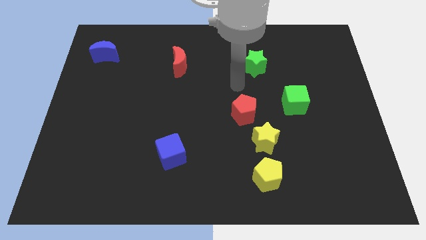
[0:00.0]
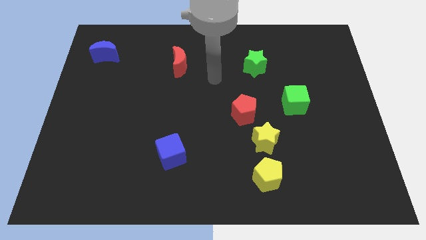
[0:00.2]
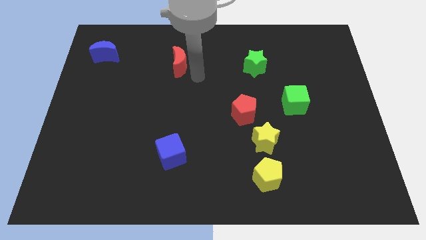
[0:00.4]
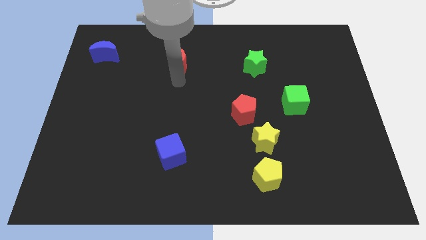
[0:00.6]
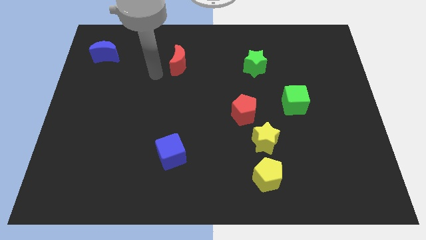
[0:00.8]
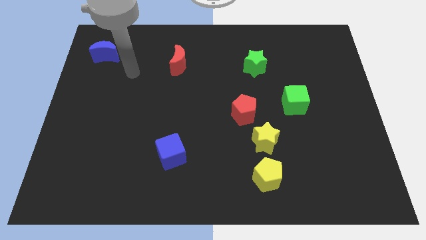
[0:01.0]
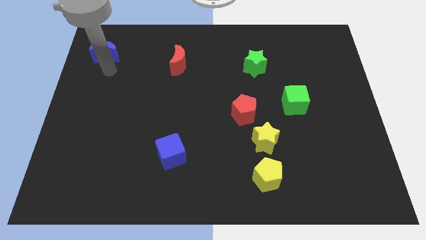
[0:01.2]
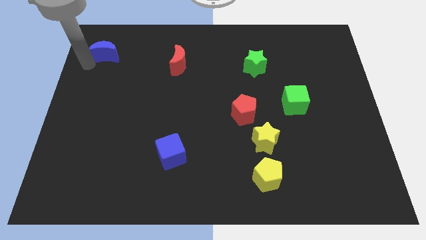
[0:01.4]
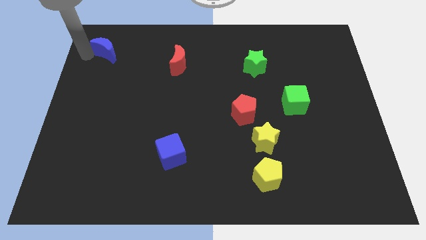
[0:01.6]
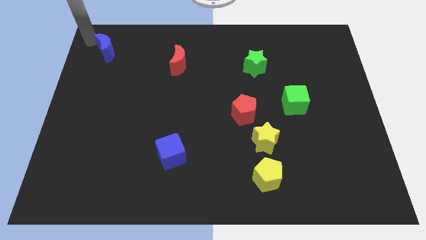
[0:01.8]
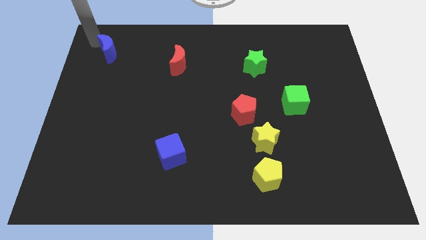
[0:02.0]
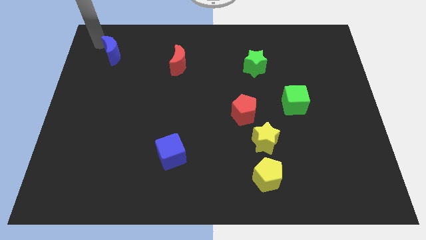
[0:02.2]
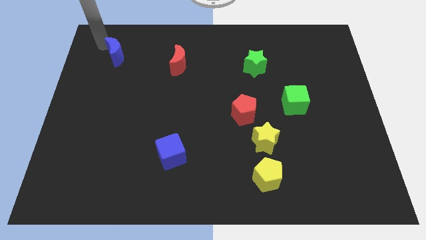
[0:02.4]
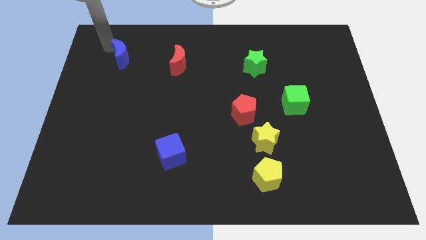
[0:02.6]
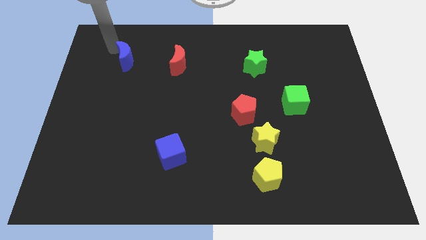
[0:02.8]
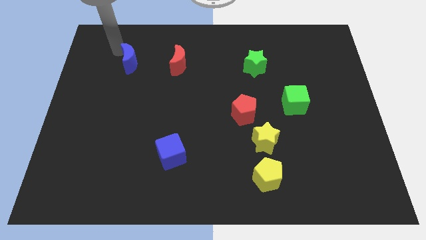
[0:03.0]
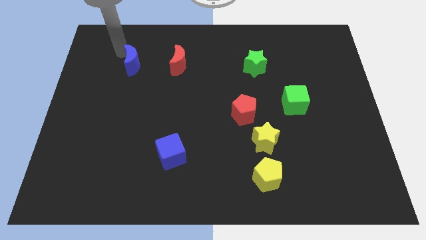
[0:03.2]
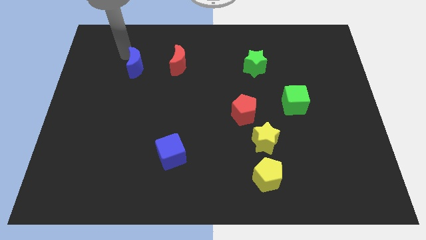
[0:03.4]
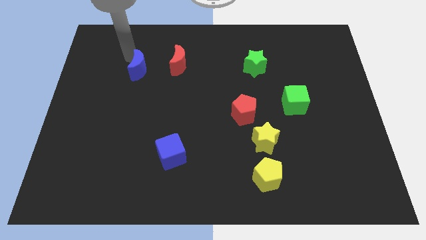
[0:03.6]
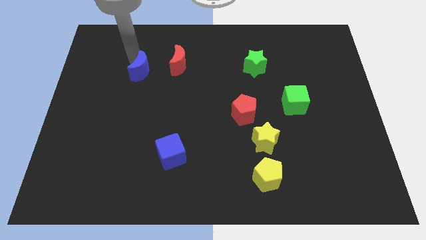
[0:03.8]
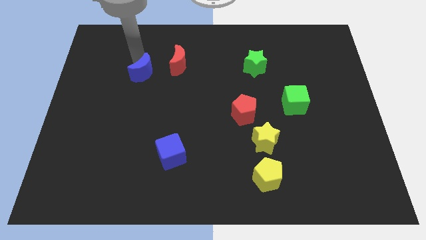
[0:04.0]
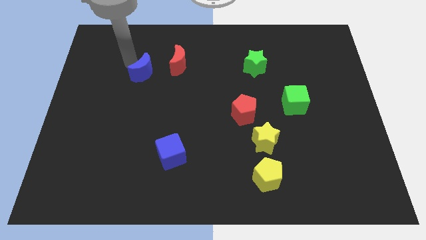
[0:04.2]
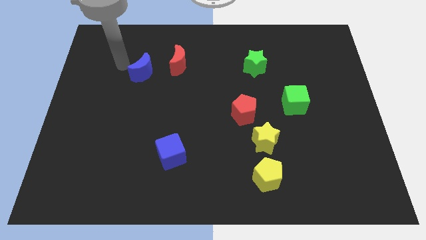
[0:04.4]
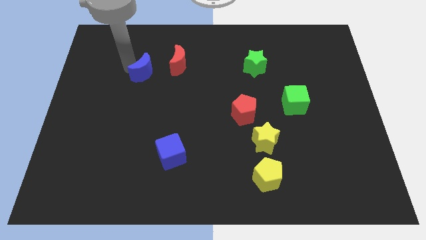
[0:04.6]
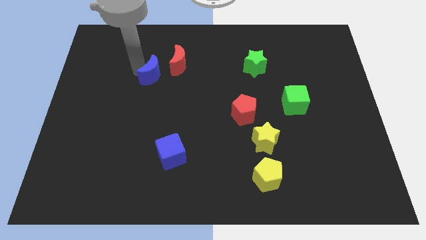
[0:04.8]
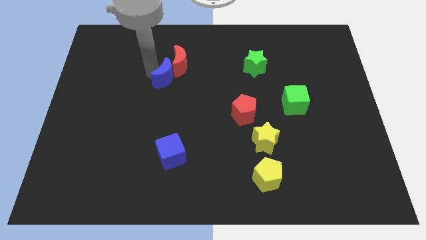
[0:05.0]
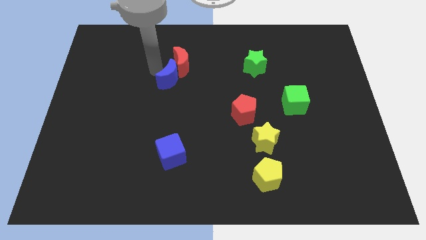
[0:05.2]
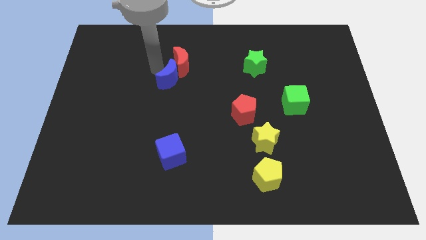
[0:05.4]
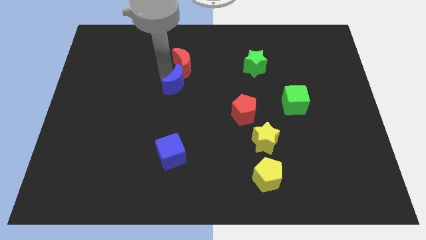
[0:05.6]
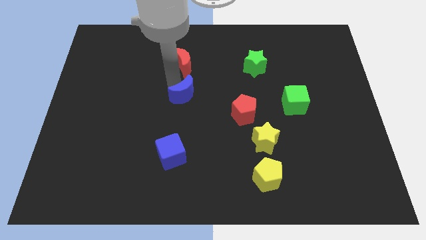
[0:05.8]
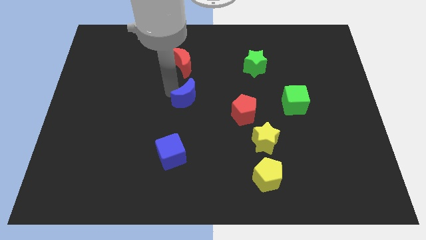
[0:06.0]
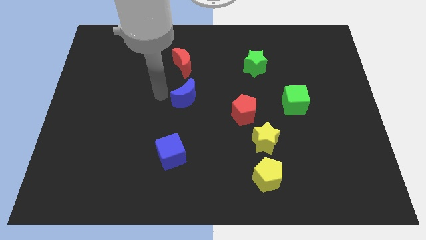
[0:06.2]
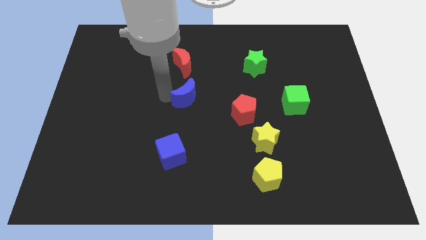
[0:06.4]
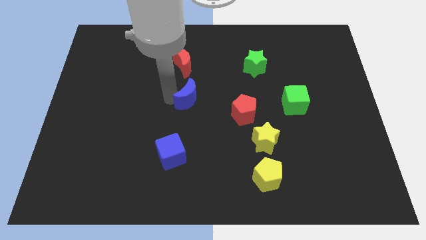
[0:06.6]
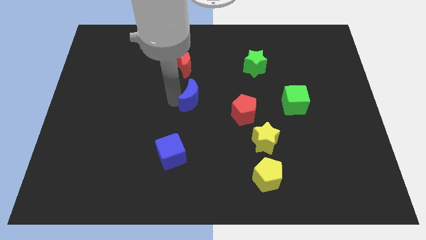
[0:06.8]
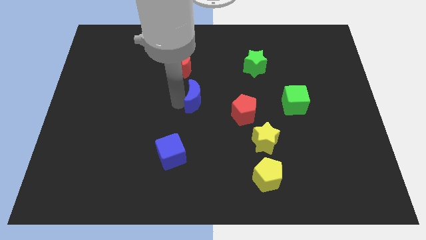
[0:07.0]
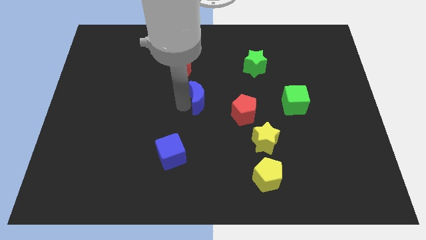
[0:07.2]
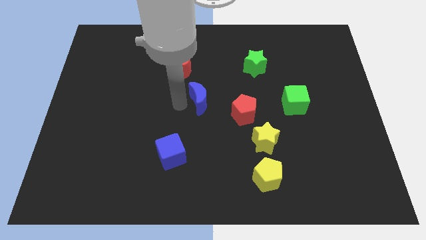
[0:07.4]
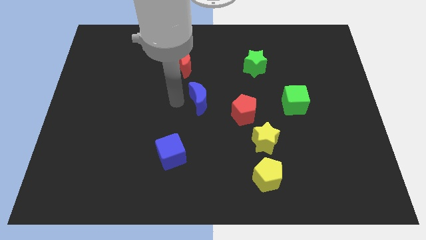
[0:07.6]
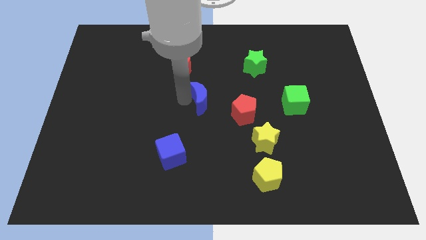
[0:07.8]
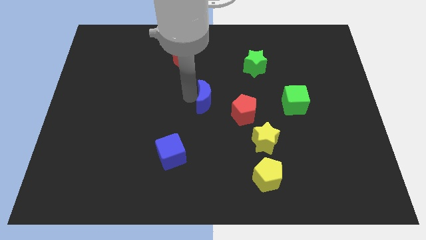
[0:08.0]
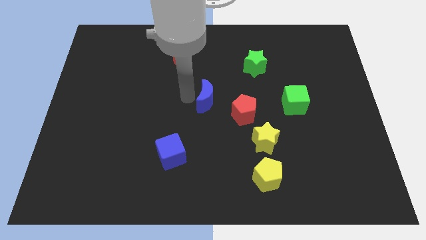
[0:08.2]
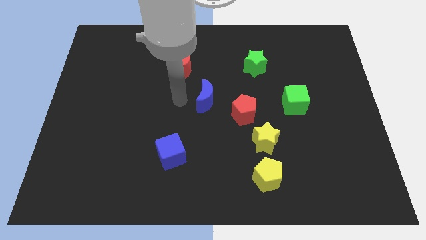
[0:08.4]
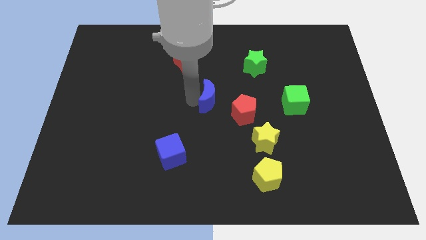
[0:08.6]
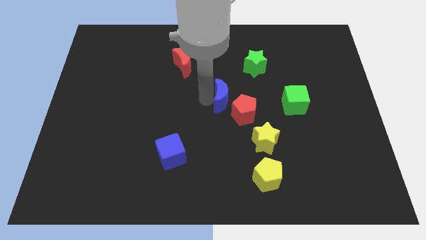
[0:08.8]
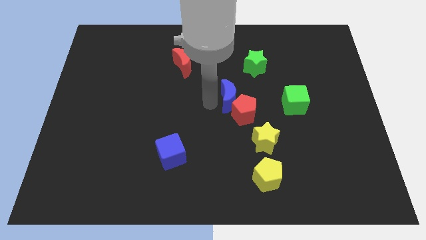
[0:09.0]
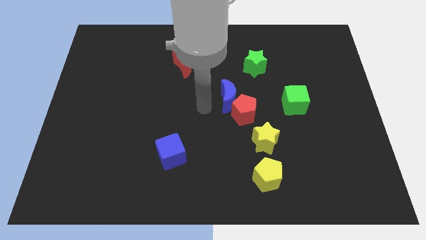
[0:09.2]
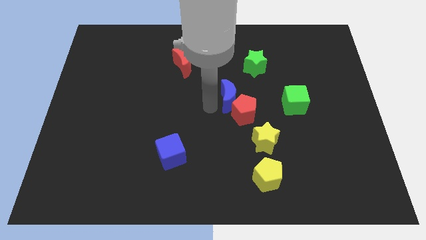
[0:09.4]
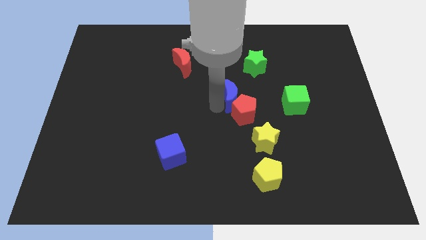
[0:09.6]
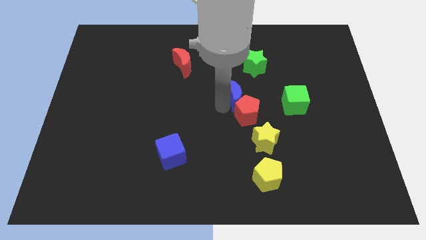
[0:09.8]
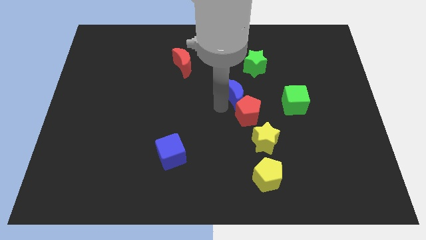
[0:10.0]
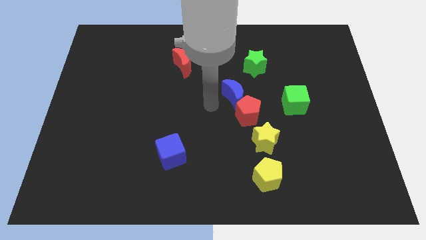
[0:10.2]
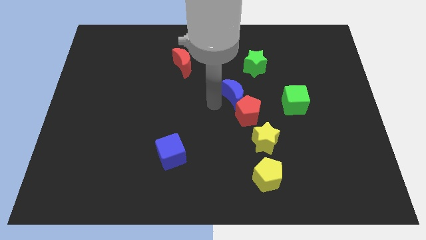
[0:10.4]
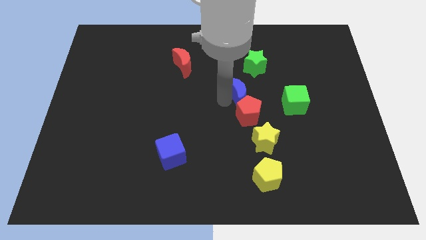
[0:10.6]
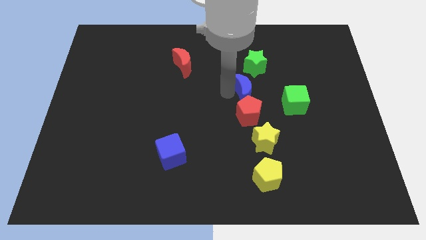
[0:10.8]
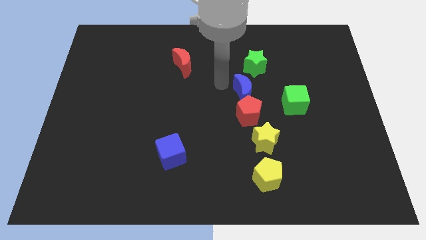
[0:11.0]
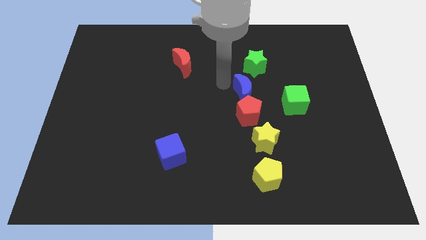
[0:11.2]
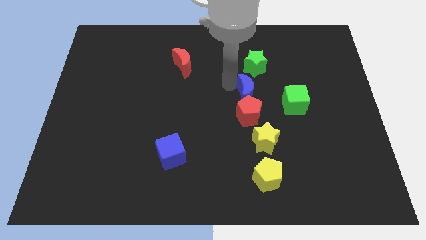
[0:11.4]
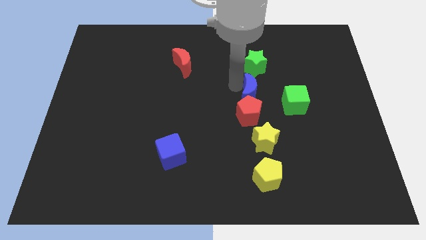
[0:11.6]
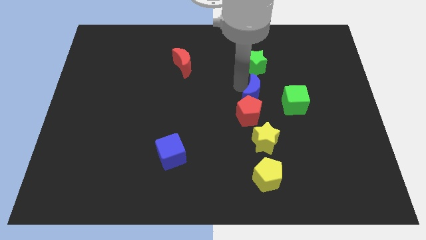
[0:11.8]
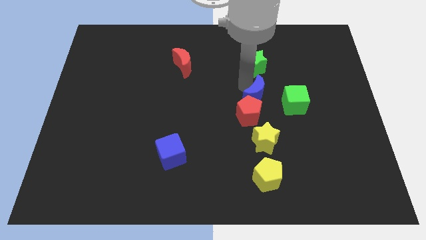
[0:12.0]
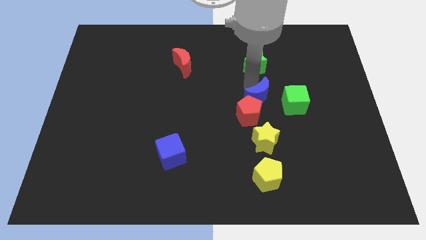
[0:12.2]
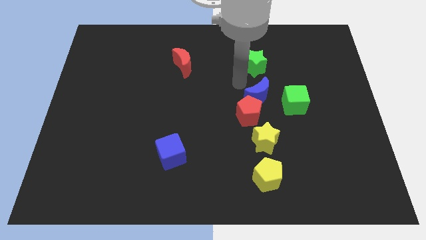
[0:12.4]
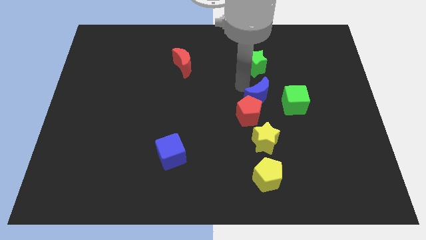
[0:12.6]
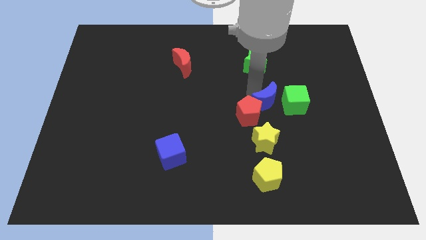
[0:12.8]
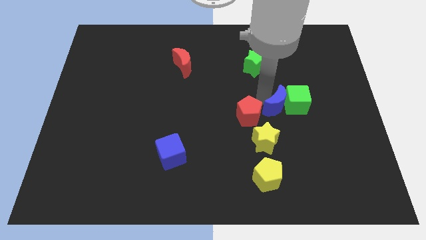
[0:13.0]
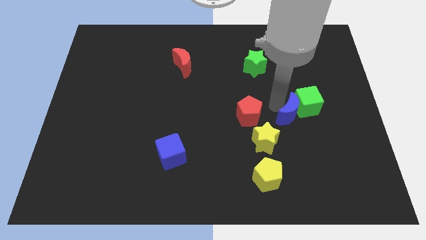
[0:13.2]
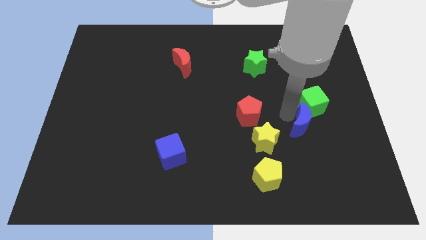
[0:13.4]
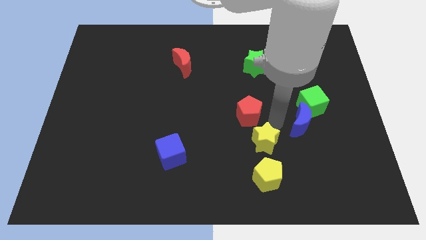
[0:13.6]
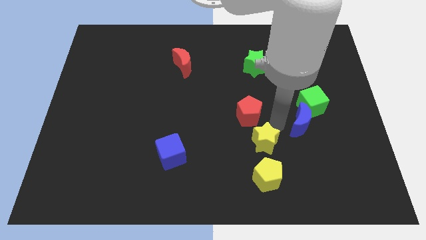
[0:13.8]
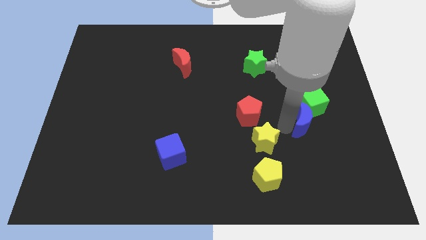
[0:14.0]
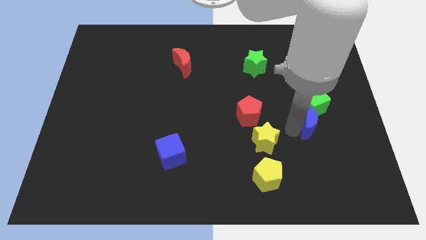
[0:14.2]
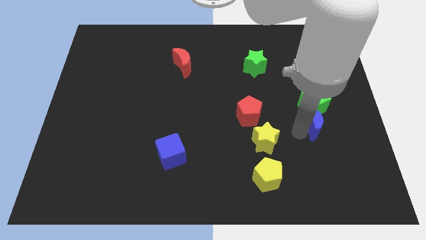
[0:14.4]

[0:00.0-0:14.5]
put the blue moon to the bottom right side of the green cube
